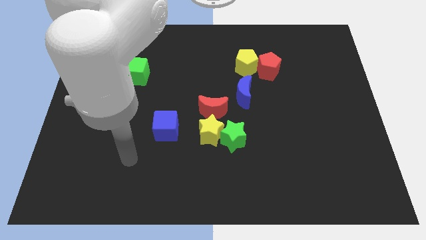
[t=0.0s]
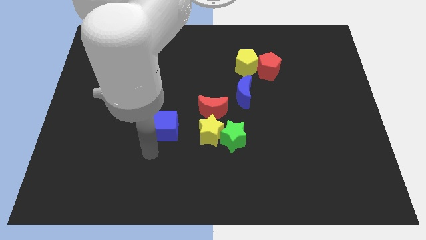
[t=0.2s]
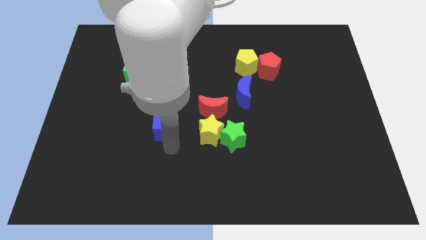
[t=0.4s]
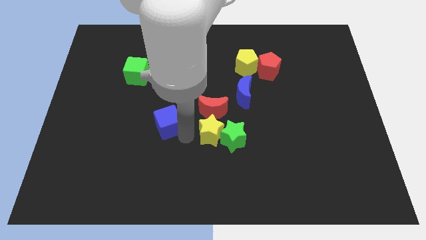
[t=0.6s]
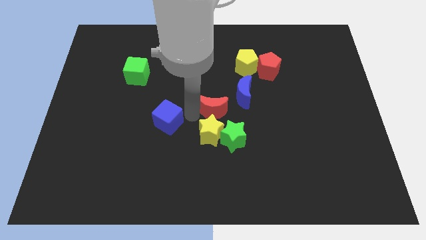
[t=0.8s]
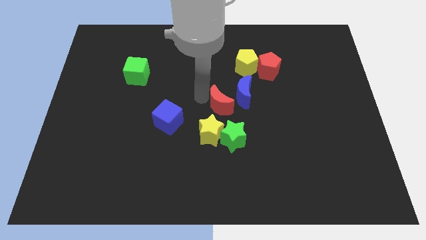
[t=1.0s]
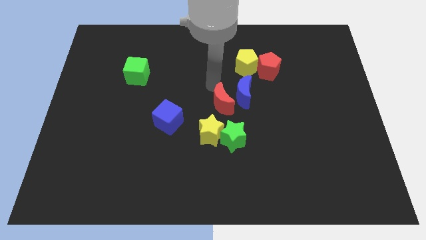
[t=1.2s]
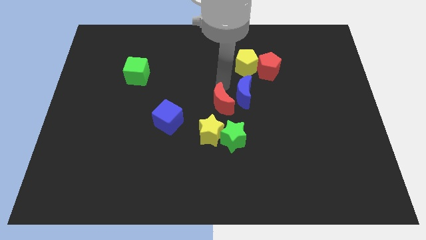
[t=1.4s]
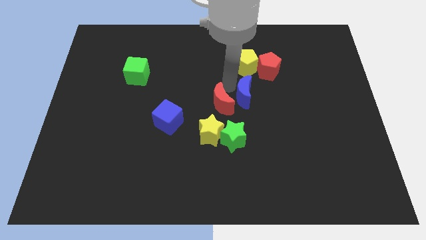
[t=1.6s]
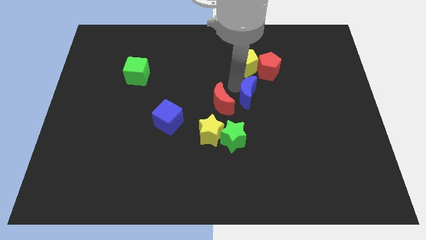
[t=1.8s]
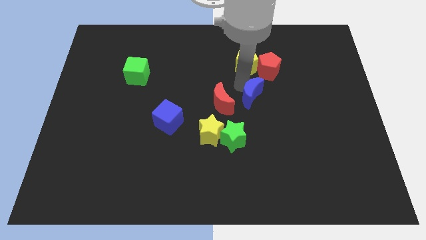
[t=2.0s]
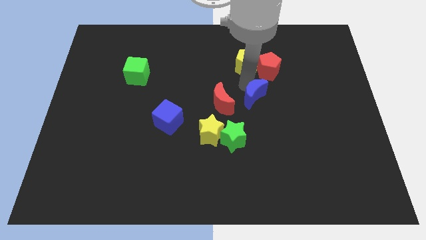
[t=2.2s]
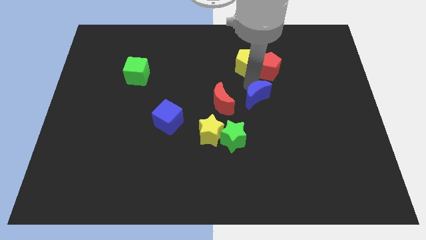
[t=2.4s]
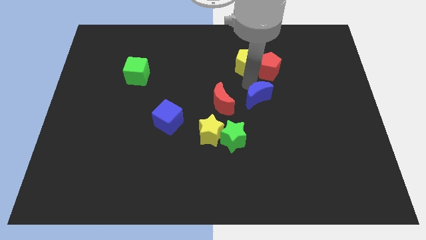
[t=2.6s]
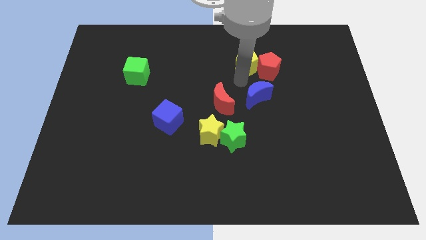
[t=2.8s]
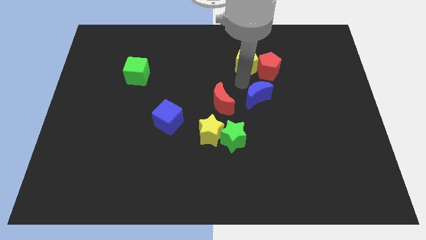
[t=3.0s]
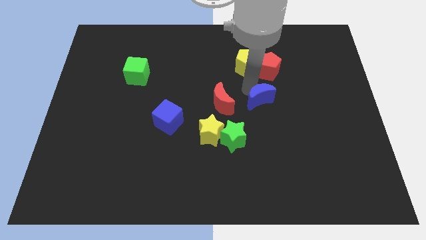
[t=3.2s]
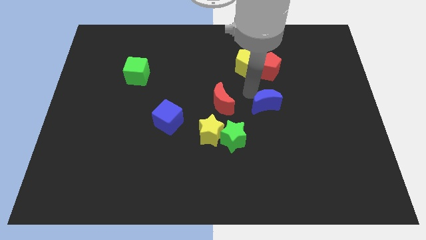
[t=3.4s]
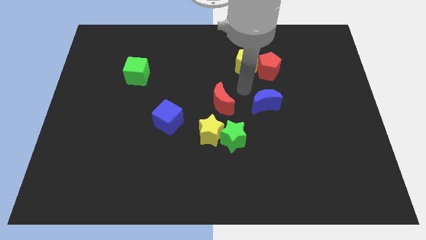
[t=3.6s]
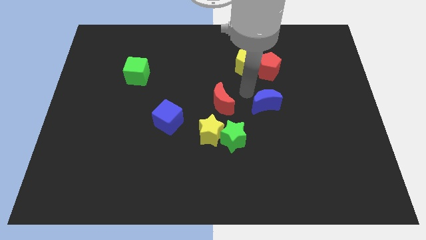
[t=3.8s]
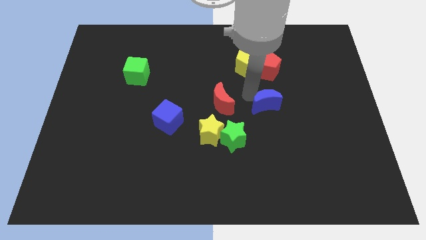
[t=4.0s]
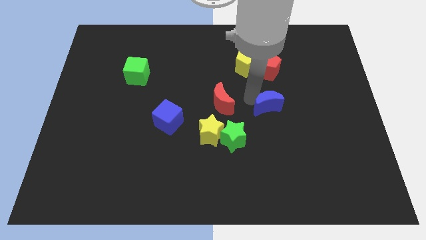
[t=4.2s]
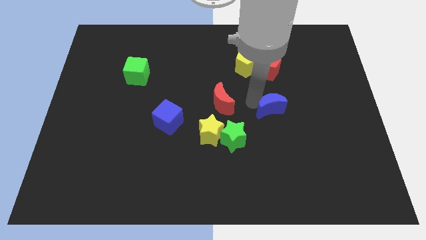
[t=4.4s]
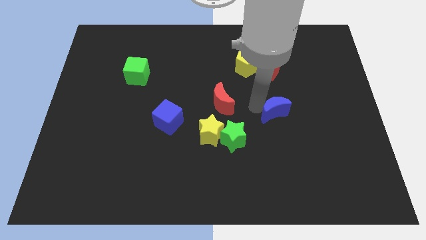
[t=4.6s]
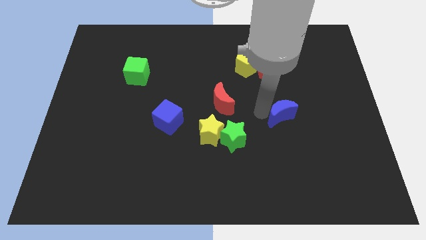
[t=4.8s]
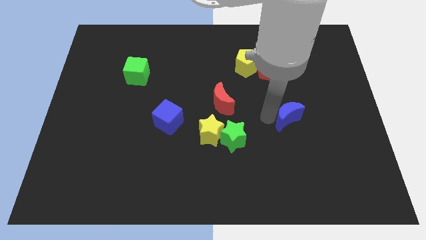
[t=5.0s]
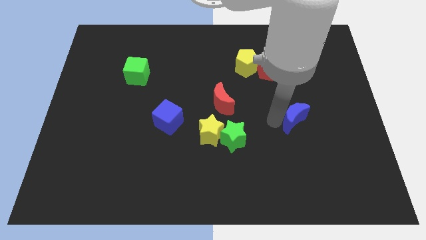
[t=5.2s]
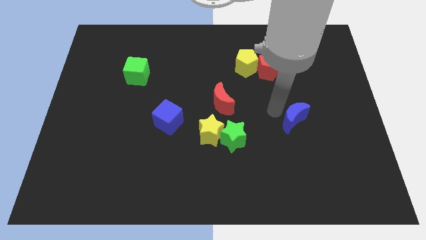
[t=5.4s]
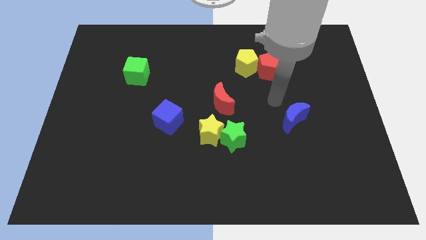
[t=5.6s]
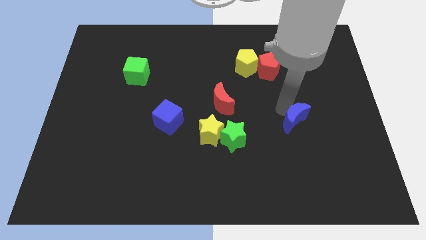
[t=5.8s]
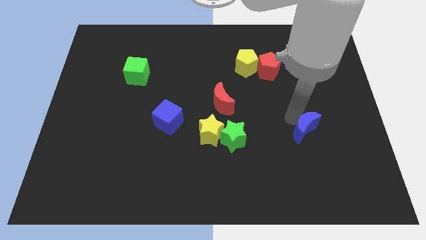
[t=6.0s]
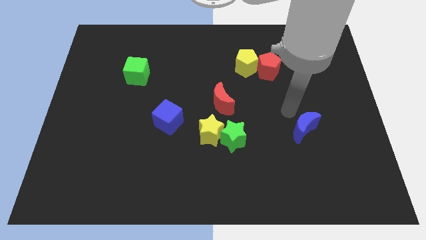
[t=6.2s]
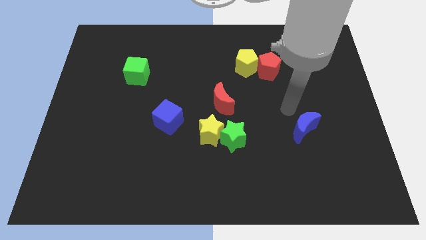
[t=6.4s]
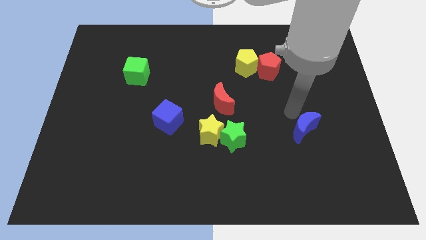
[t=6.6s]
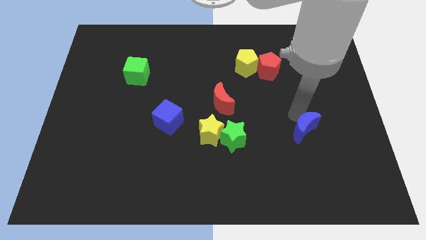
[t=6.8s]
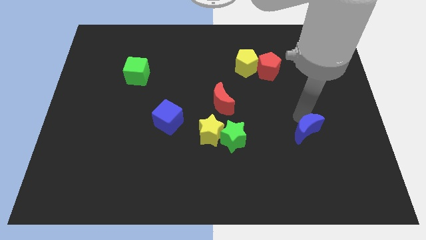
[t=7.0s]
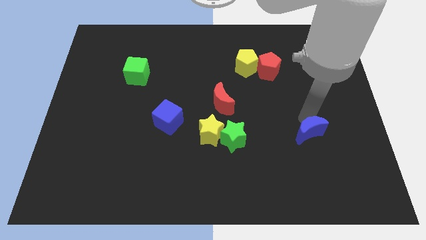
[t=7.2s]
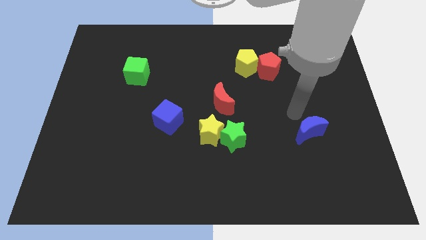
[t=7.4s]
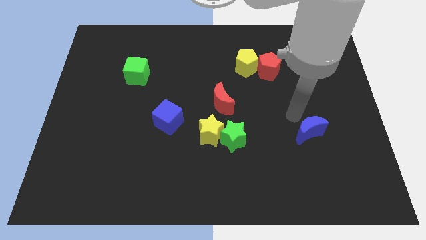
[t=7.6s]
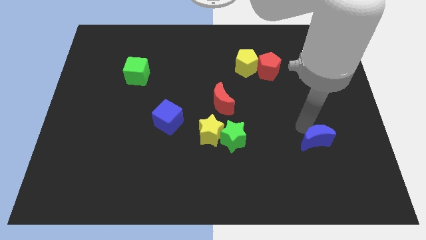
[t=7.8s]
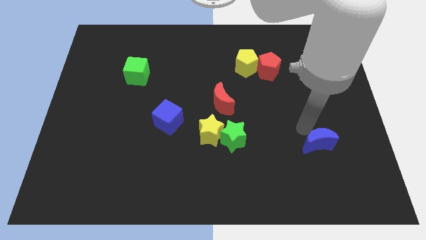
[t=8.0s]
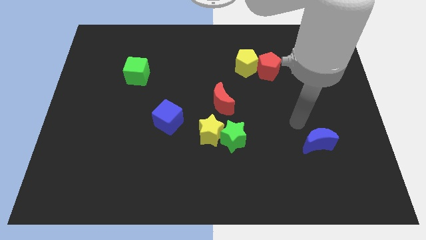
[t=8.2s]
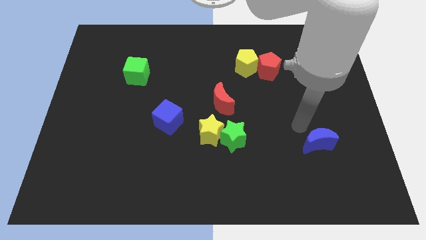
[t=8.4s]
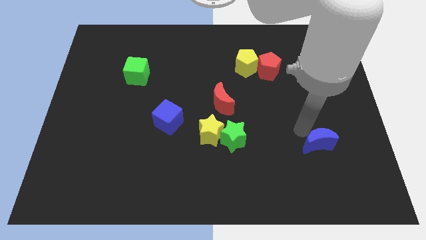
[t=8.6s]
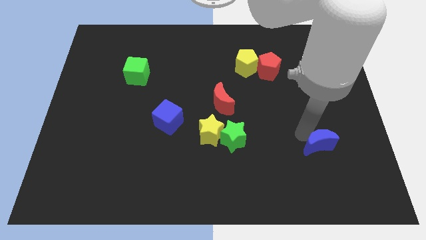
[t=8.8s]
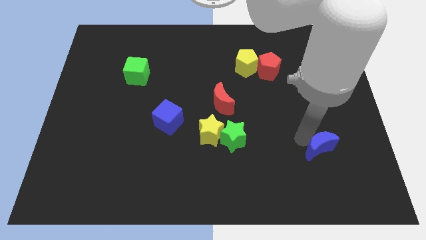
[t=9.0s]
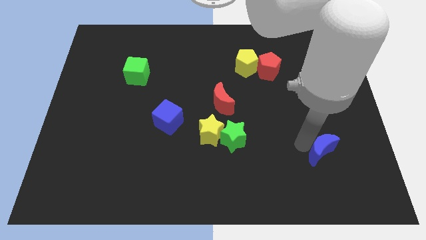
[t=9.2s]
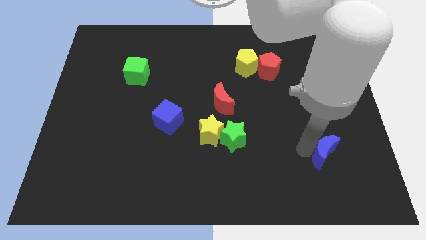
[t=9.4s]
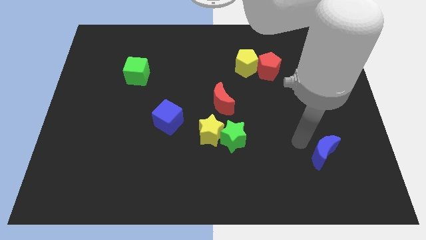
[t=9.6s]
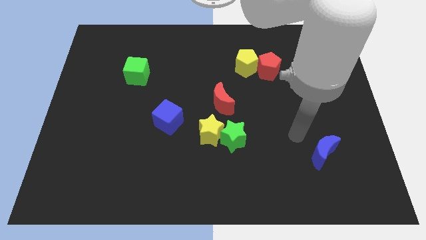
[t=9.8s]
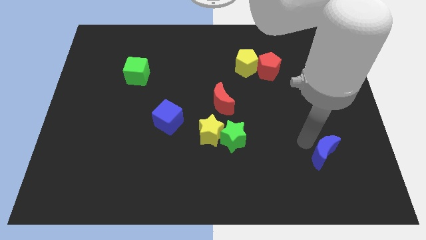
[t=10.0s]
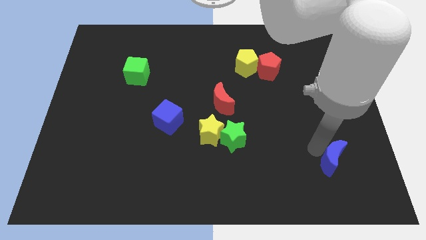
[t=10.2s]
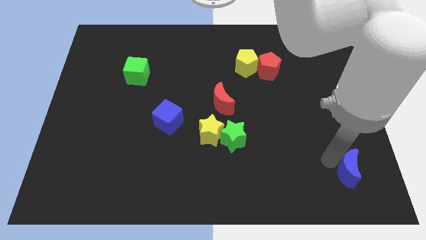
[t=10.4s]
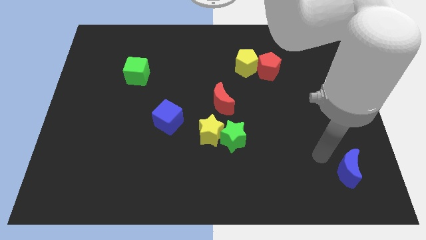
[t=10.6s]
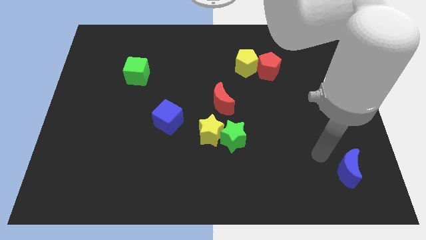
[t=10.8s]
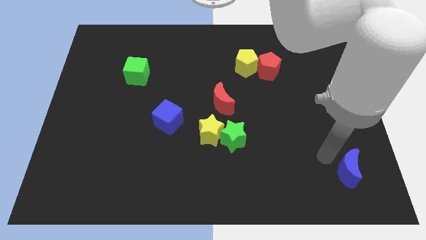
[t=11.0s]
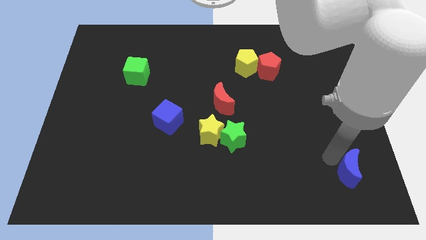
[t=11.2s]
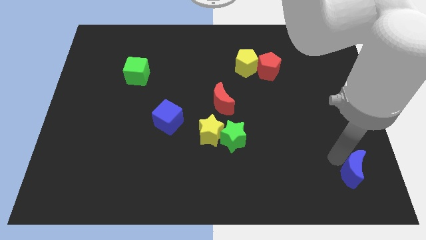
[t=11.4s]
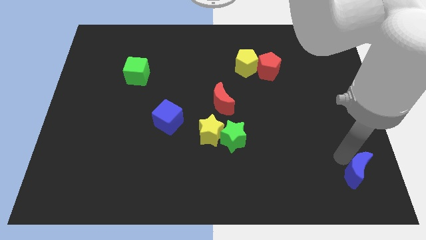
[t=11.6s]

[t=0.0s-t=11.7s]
push the blue moon to the bottom right

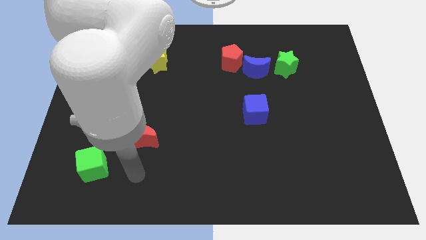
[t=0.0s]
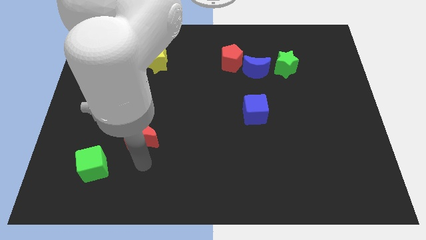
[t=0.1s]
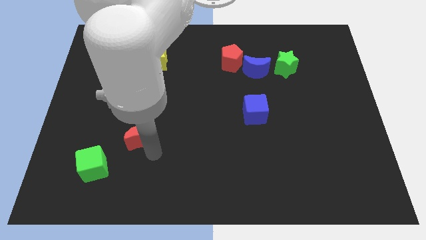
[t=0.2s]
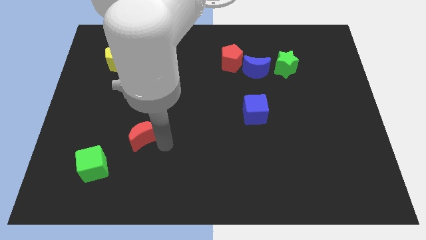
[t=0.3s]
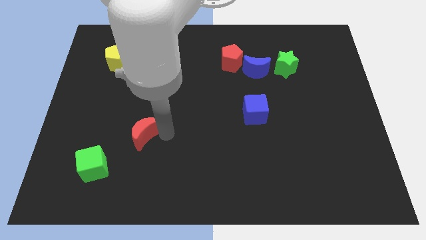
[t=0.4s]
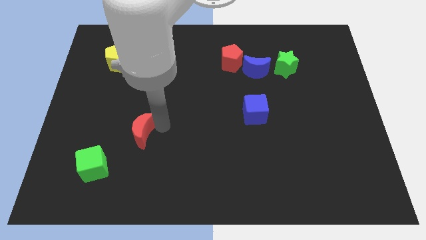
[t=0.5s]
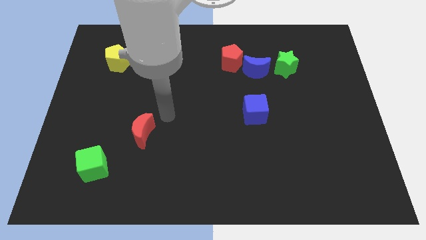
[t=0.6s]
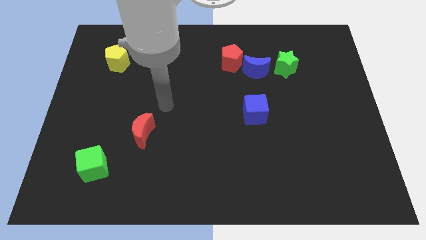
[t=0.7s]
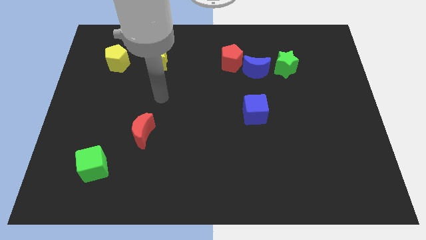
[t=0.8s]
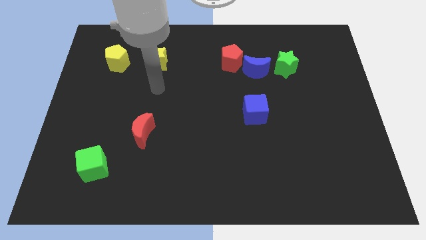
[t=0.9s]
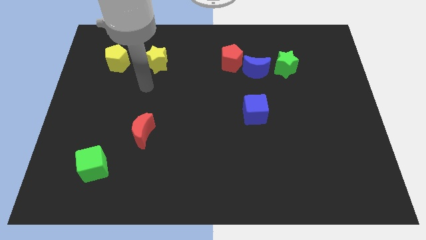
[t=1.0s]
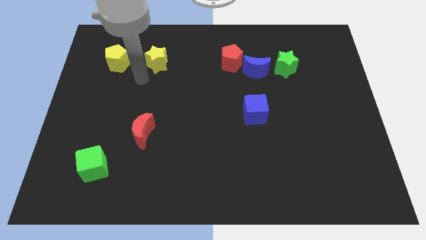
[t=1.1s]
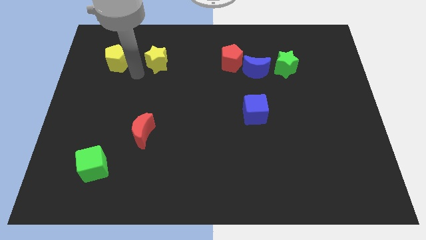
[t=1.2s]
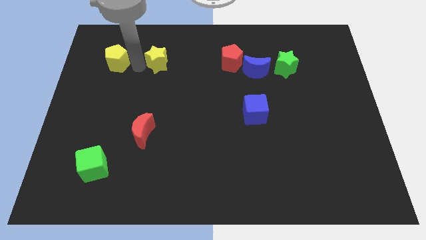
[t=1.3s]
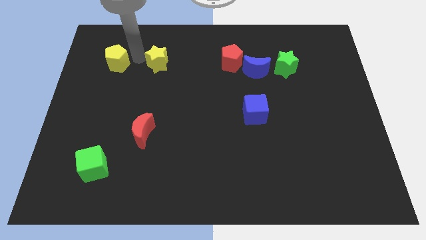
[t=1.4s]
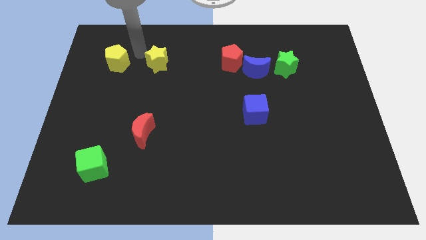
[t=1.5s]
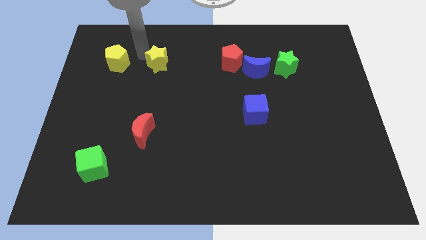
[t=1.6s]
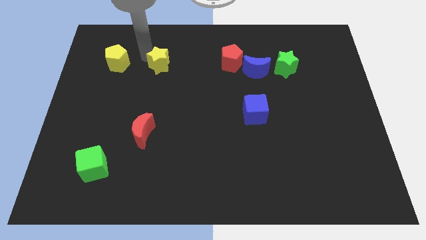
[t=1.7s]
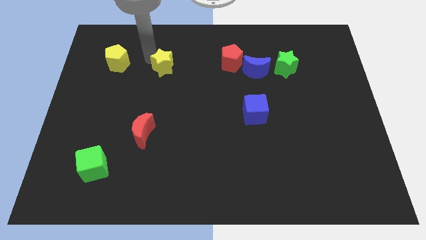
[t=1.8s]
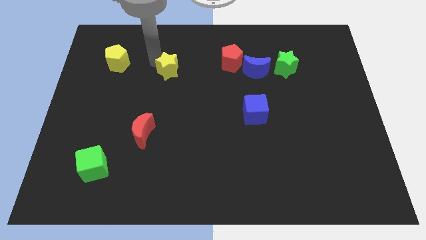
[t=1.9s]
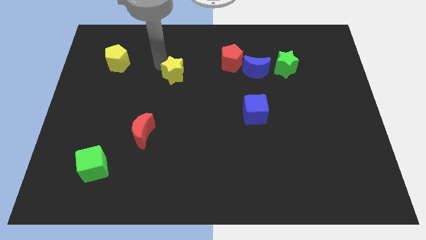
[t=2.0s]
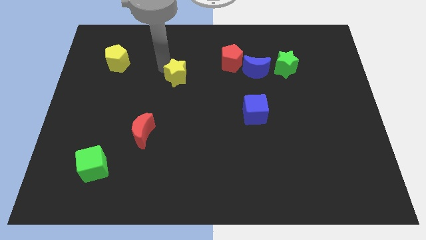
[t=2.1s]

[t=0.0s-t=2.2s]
slide the yellow star to the center of the board

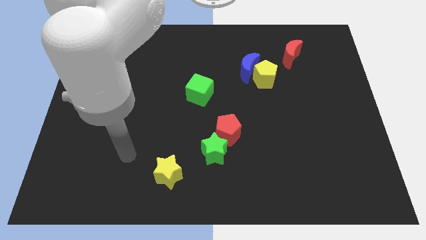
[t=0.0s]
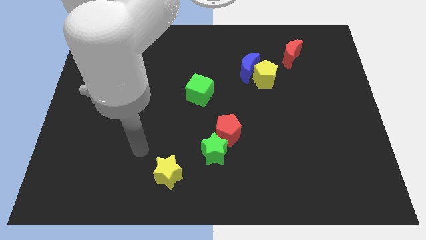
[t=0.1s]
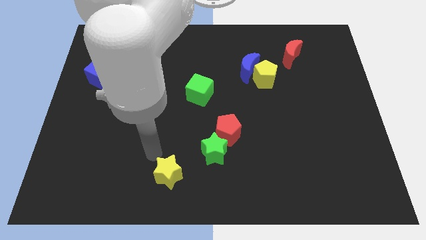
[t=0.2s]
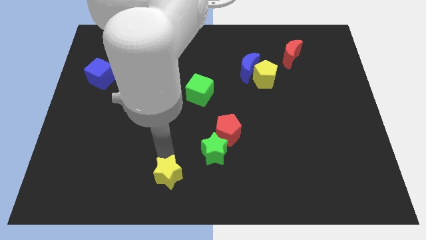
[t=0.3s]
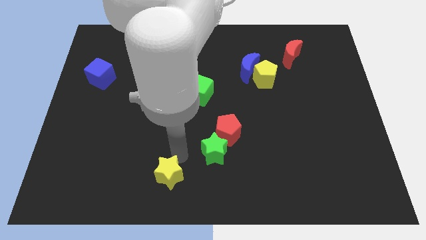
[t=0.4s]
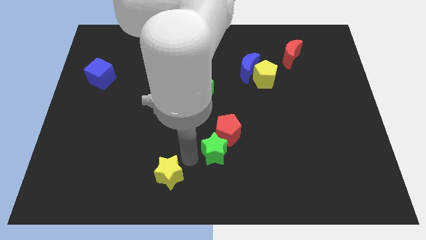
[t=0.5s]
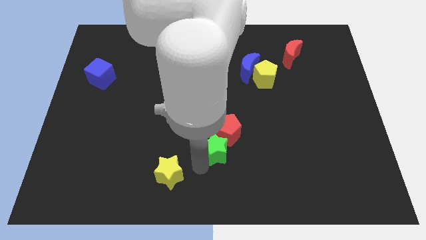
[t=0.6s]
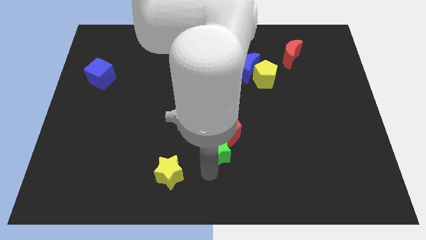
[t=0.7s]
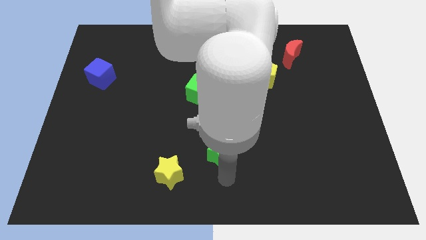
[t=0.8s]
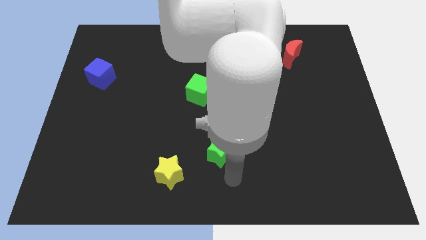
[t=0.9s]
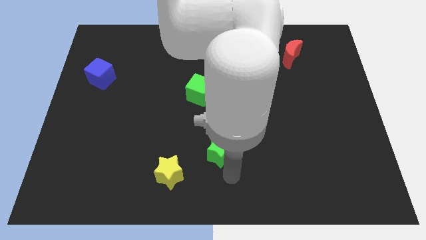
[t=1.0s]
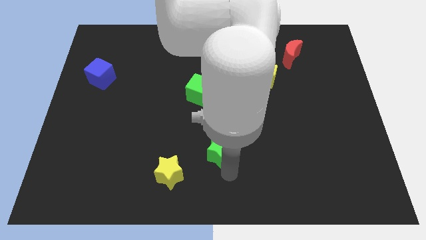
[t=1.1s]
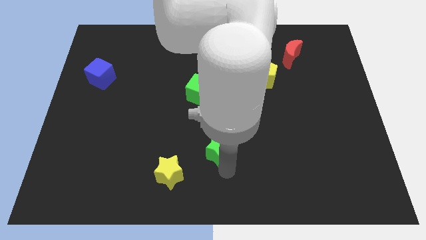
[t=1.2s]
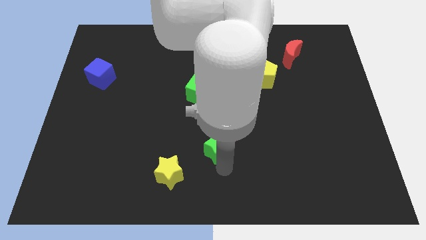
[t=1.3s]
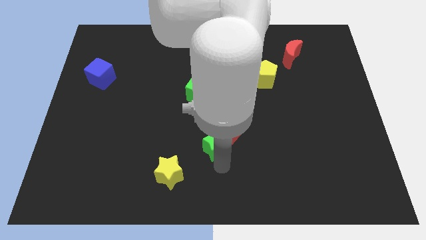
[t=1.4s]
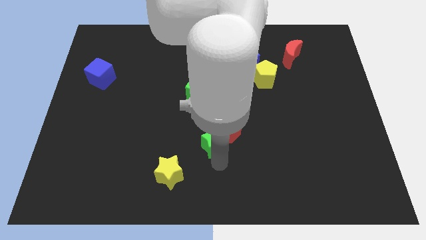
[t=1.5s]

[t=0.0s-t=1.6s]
slide the green star to the middle of the board
